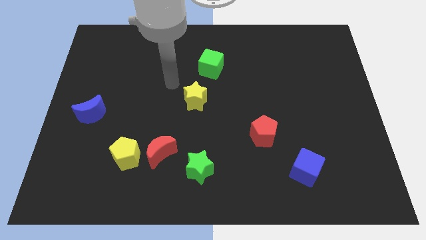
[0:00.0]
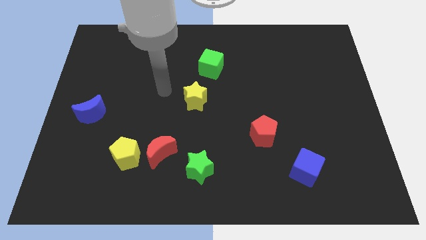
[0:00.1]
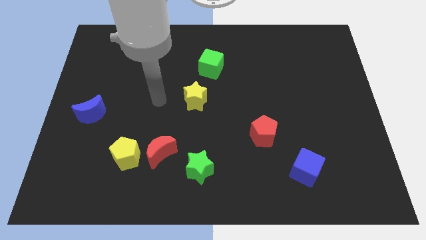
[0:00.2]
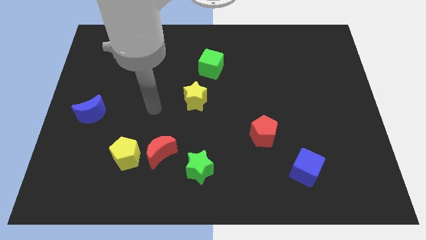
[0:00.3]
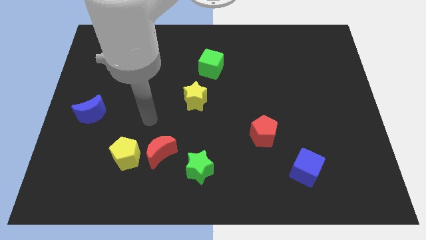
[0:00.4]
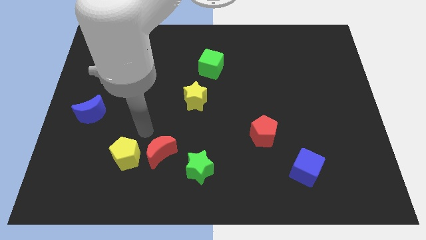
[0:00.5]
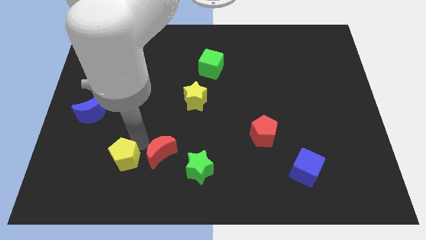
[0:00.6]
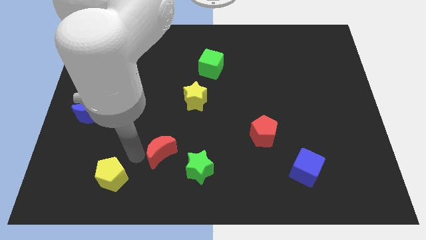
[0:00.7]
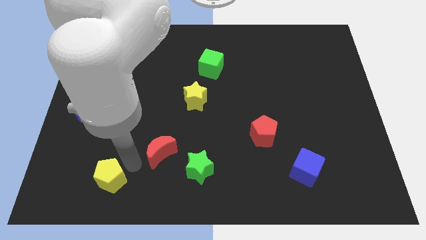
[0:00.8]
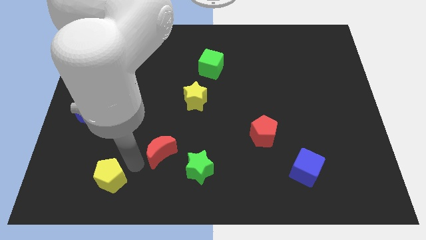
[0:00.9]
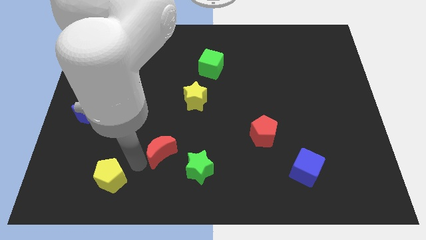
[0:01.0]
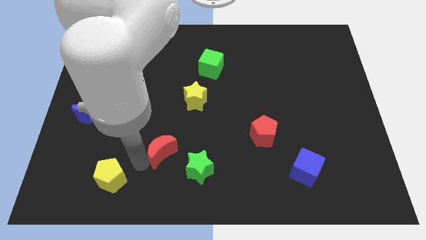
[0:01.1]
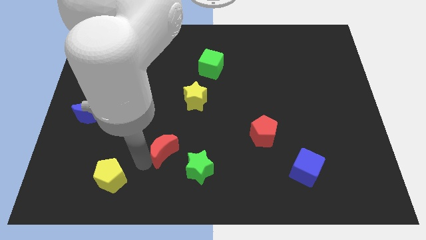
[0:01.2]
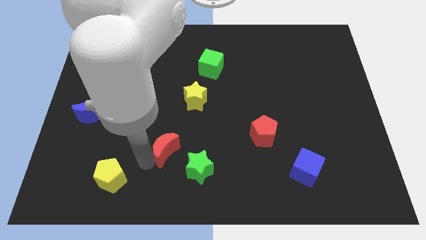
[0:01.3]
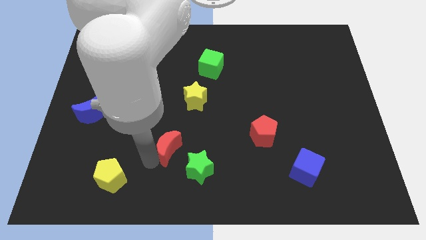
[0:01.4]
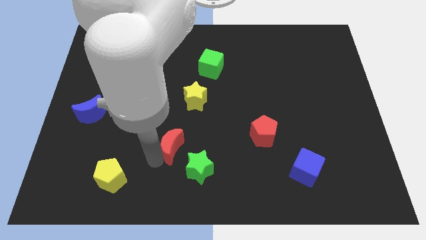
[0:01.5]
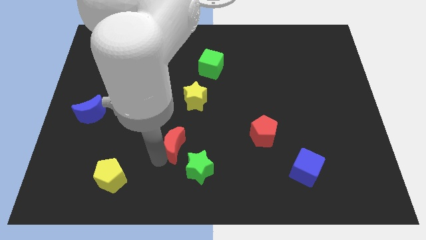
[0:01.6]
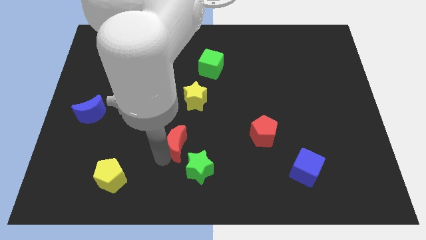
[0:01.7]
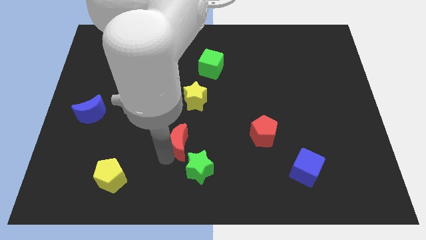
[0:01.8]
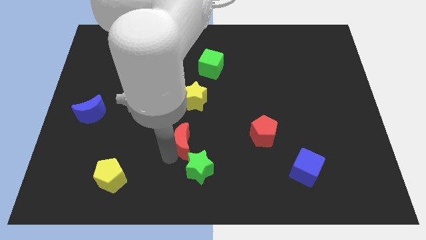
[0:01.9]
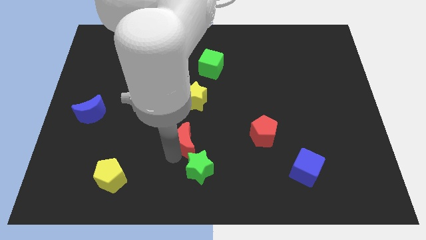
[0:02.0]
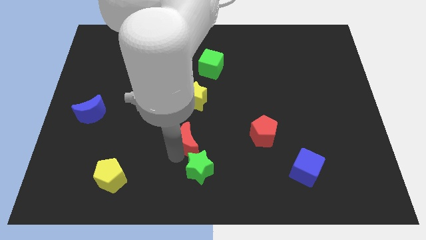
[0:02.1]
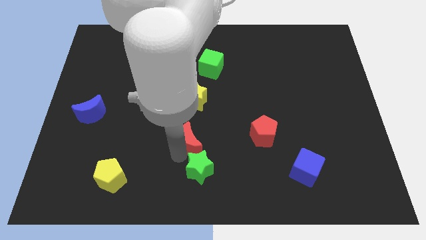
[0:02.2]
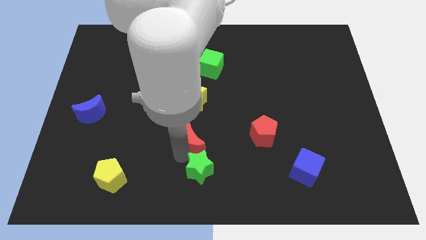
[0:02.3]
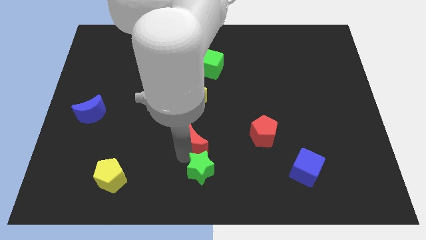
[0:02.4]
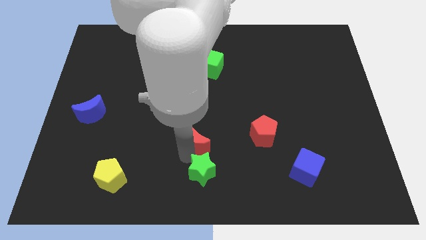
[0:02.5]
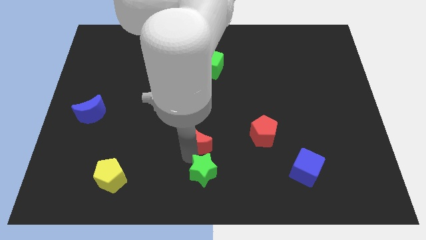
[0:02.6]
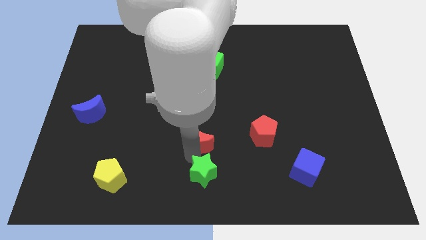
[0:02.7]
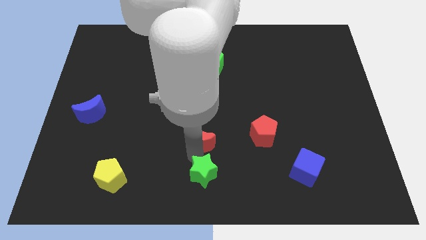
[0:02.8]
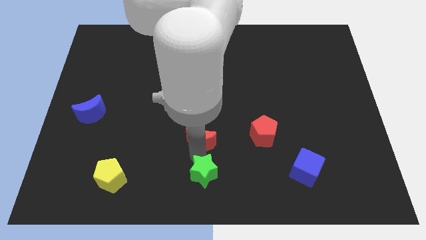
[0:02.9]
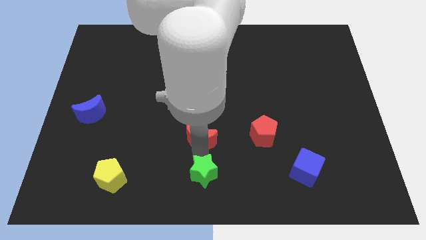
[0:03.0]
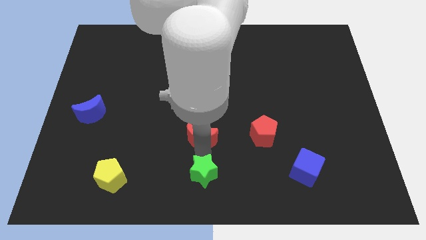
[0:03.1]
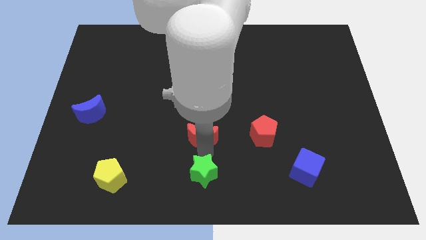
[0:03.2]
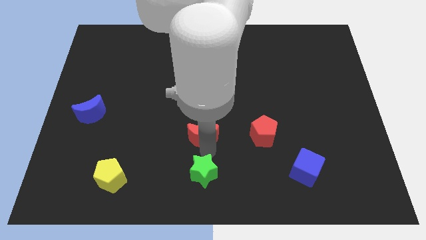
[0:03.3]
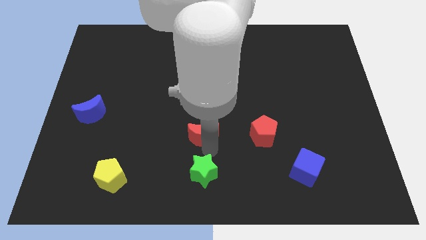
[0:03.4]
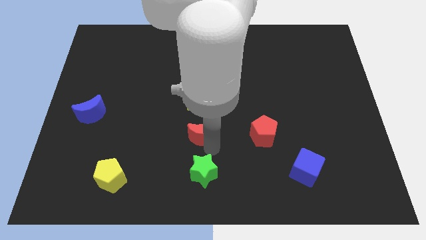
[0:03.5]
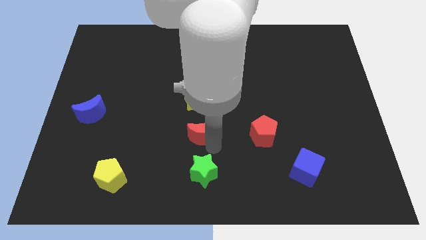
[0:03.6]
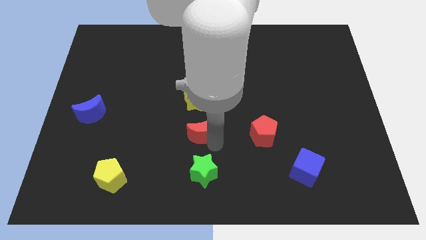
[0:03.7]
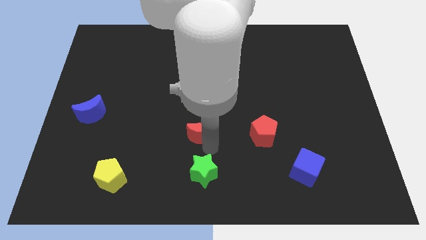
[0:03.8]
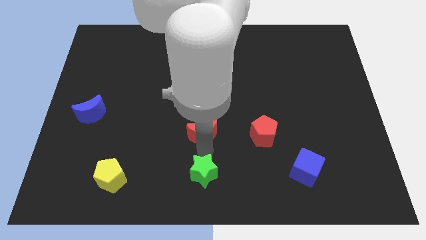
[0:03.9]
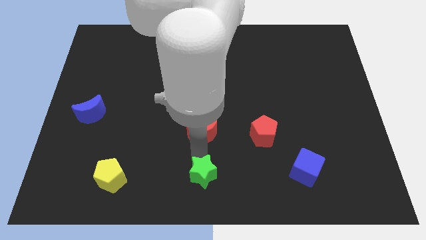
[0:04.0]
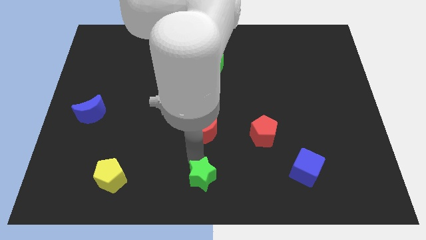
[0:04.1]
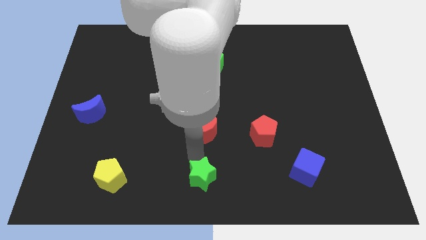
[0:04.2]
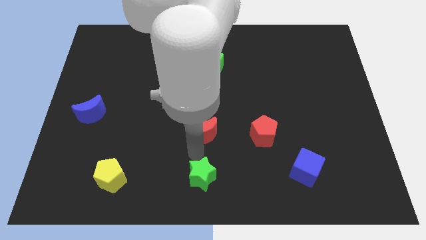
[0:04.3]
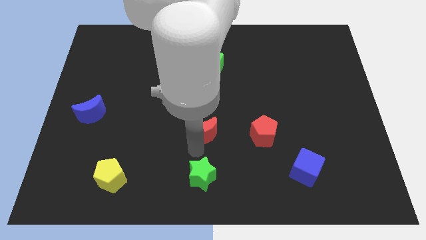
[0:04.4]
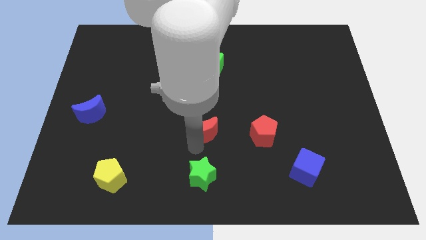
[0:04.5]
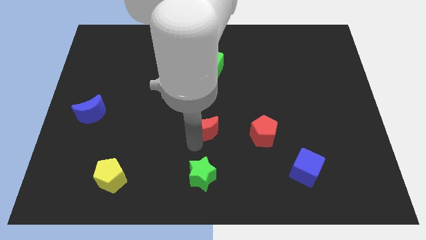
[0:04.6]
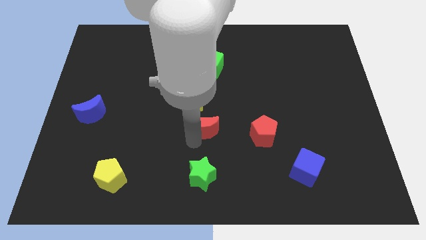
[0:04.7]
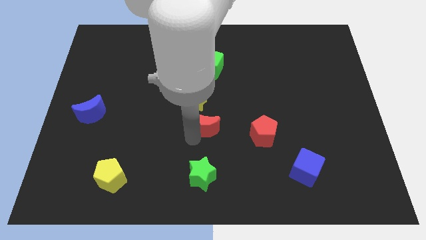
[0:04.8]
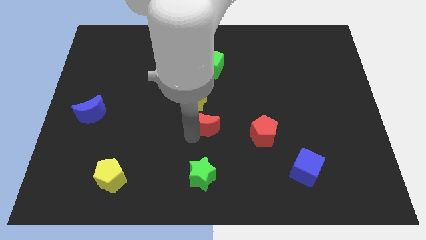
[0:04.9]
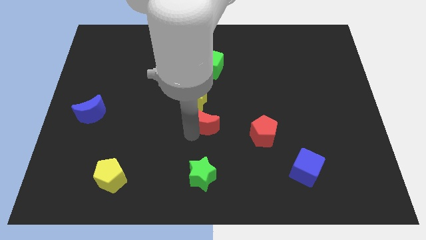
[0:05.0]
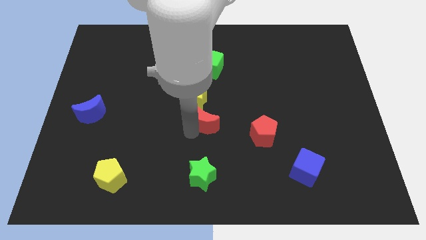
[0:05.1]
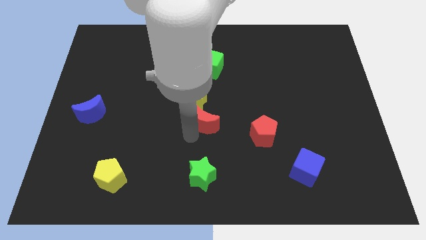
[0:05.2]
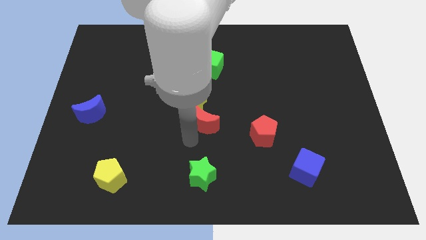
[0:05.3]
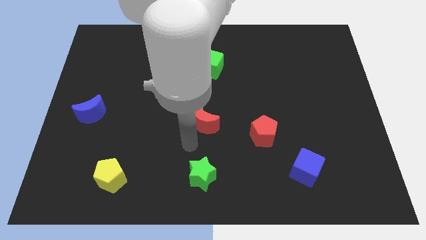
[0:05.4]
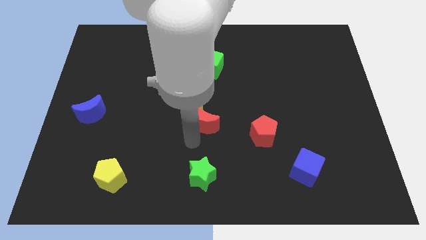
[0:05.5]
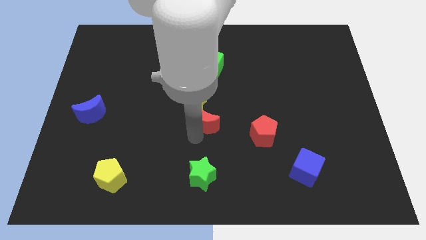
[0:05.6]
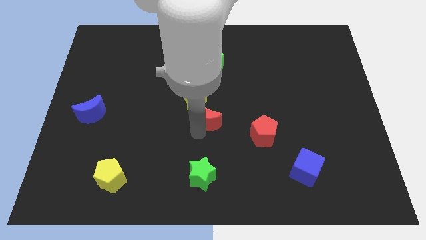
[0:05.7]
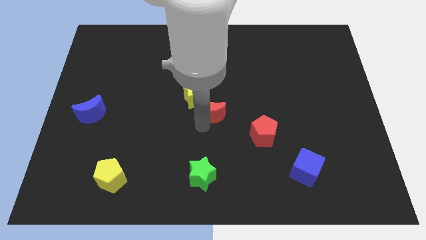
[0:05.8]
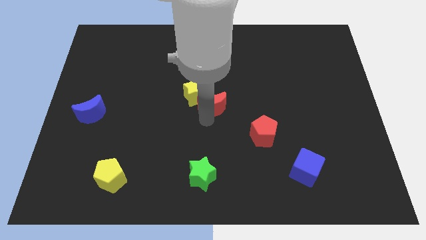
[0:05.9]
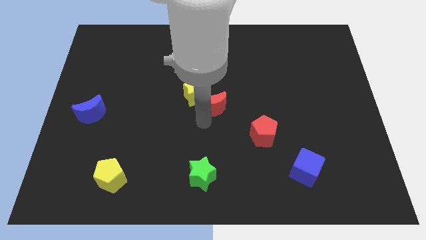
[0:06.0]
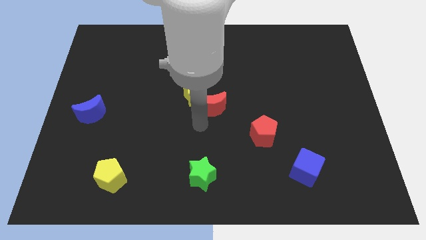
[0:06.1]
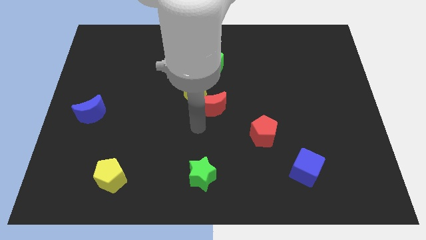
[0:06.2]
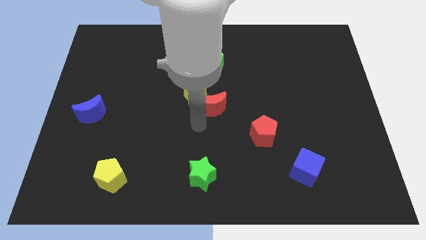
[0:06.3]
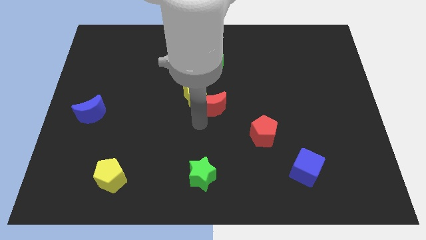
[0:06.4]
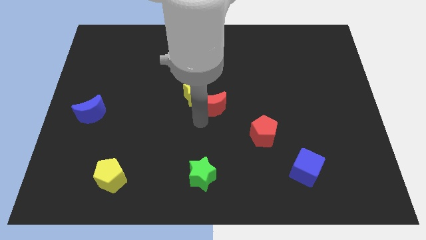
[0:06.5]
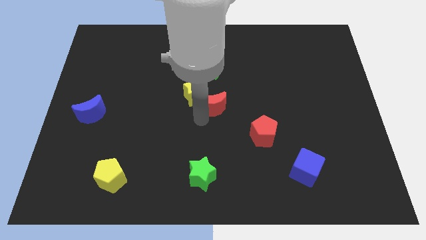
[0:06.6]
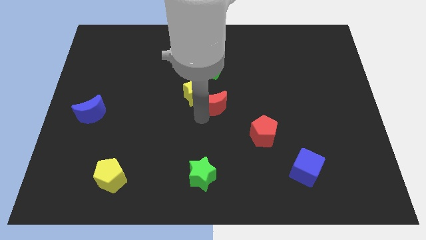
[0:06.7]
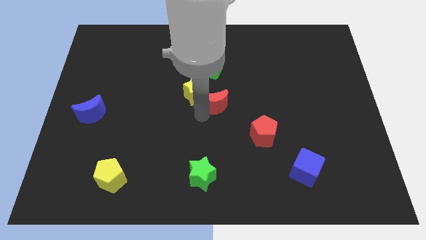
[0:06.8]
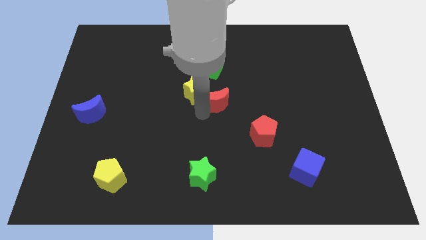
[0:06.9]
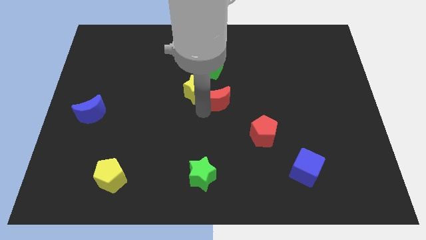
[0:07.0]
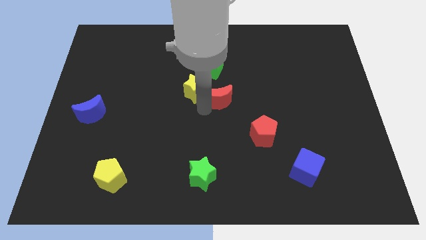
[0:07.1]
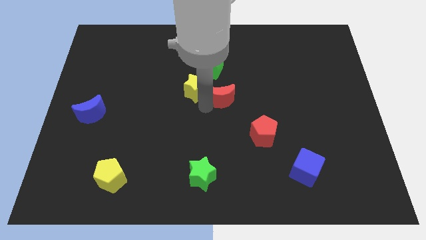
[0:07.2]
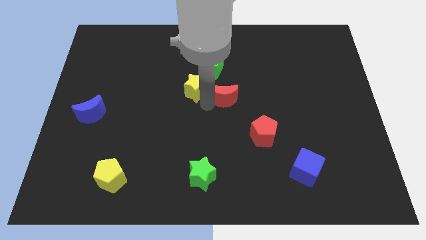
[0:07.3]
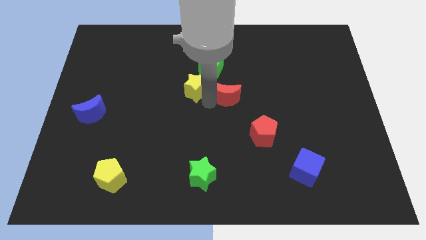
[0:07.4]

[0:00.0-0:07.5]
push the red moon to the bottom right of the green cube

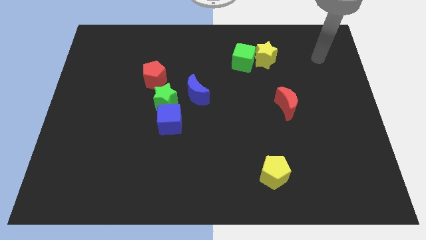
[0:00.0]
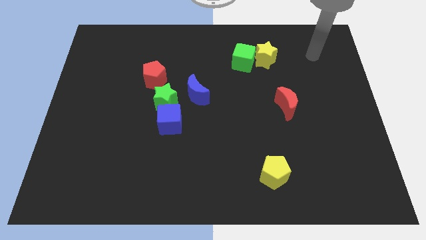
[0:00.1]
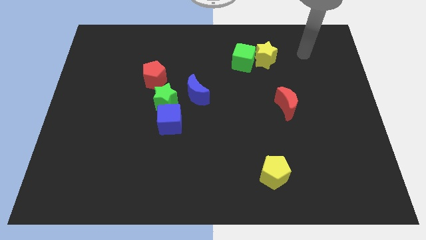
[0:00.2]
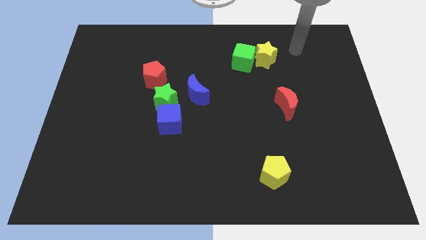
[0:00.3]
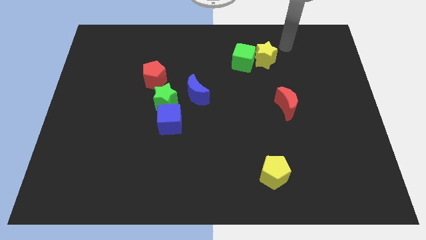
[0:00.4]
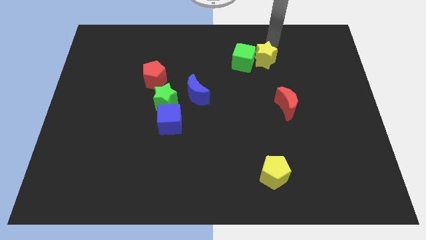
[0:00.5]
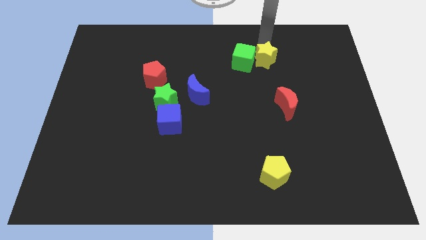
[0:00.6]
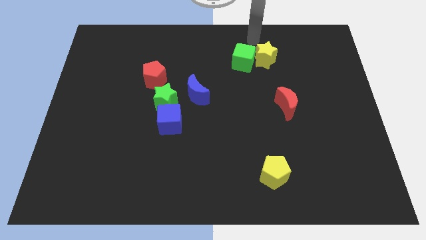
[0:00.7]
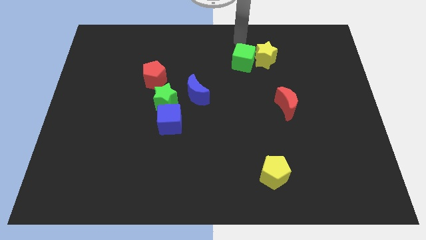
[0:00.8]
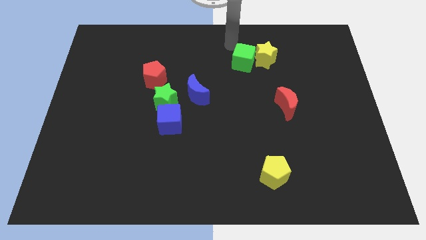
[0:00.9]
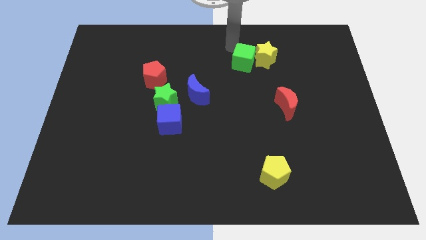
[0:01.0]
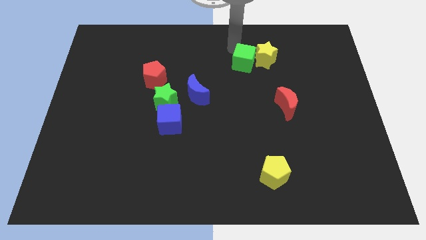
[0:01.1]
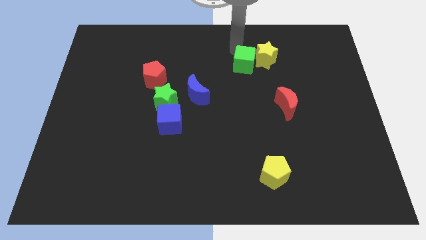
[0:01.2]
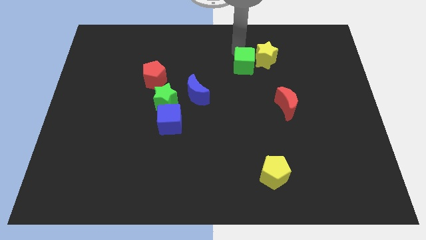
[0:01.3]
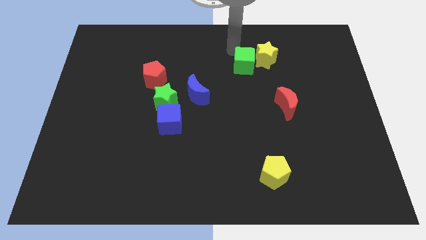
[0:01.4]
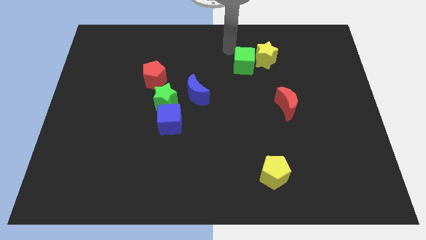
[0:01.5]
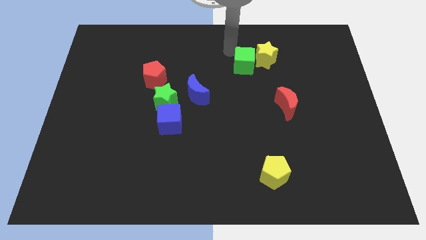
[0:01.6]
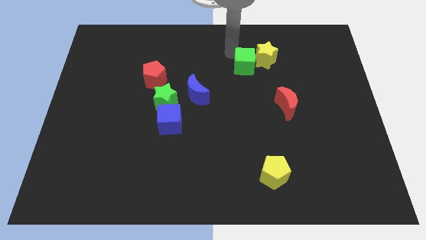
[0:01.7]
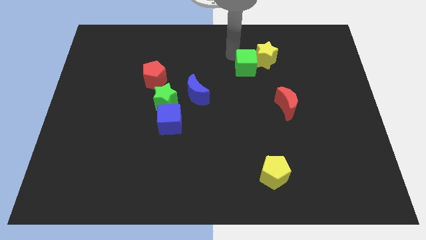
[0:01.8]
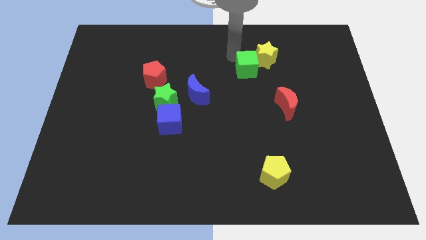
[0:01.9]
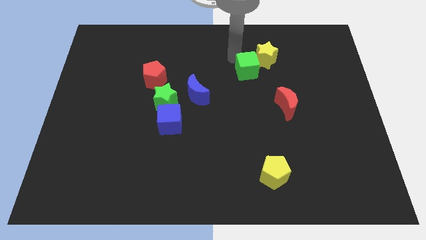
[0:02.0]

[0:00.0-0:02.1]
push the green cube below the yellow star
